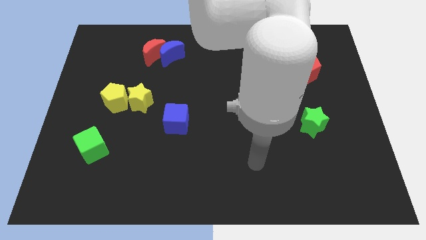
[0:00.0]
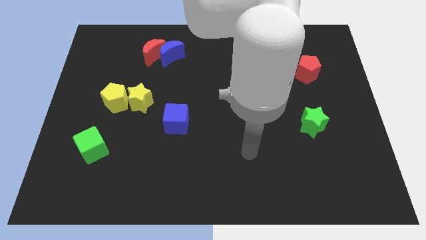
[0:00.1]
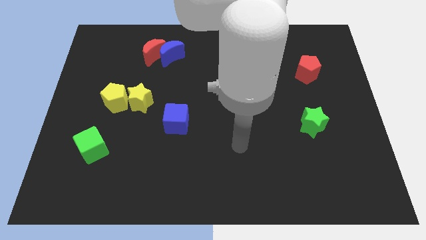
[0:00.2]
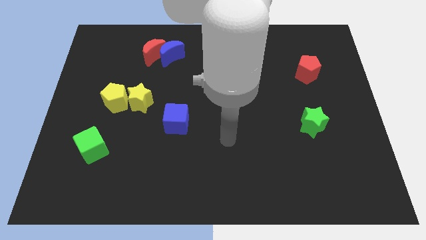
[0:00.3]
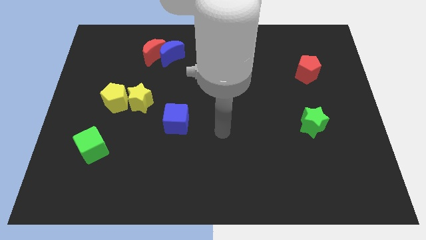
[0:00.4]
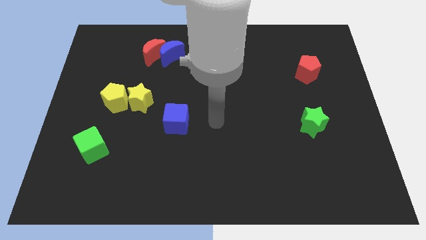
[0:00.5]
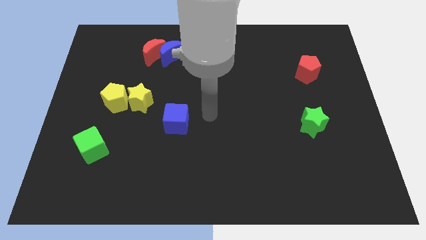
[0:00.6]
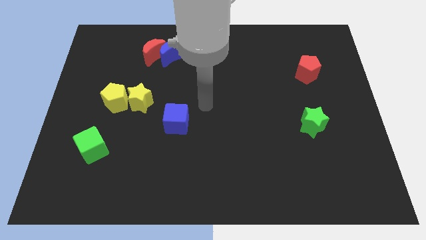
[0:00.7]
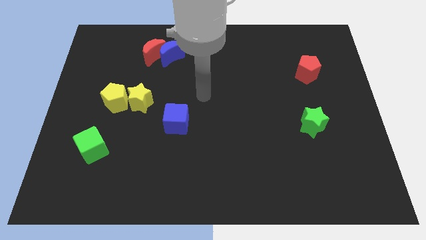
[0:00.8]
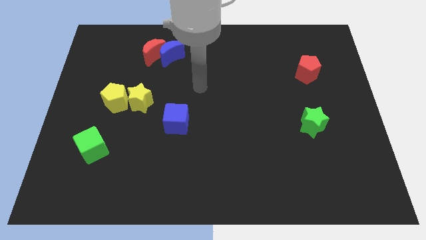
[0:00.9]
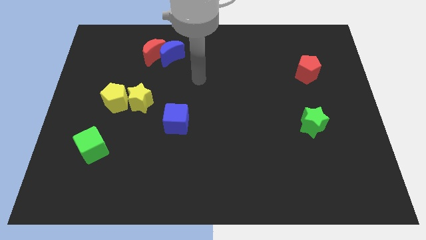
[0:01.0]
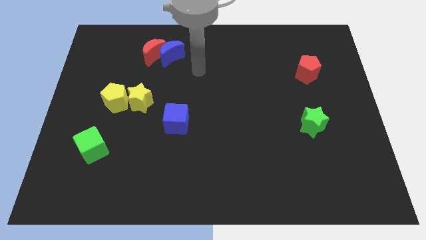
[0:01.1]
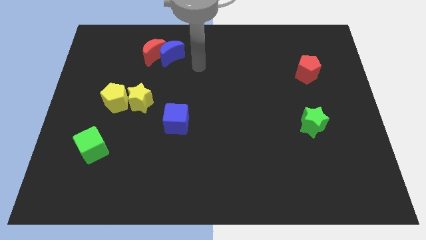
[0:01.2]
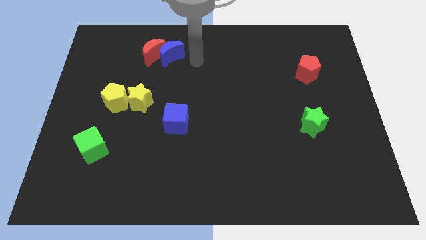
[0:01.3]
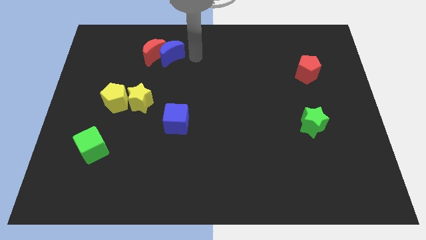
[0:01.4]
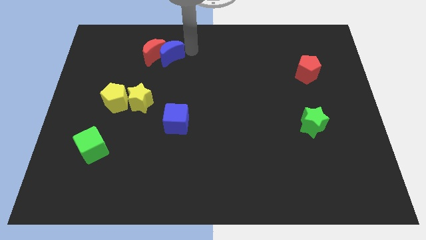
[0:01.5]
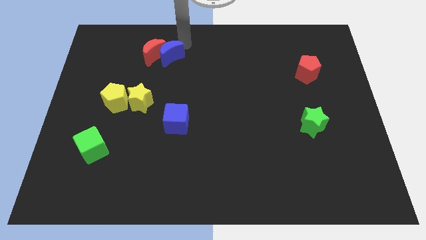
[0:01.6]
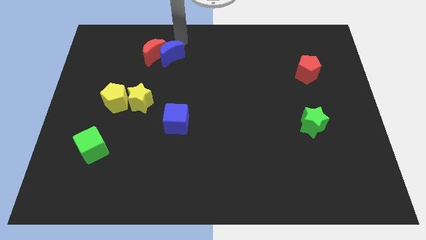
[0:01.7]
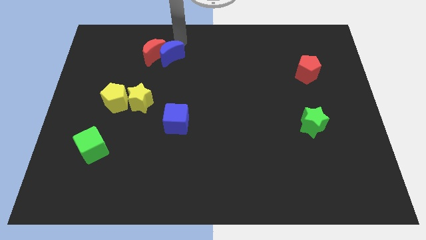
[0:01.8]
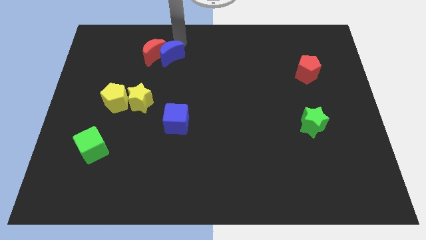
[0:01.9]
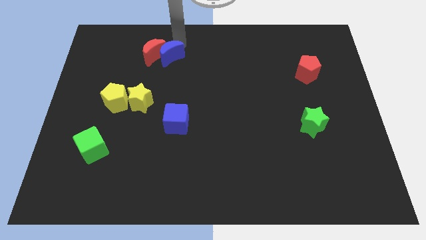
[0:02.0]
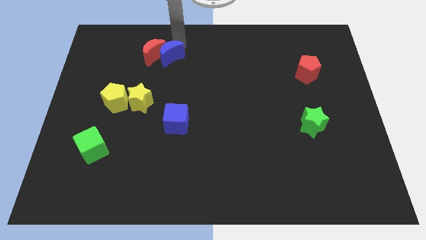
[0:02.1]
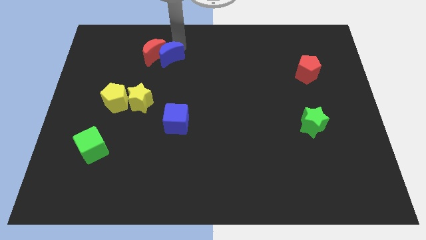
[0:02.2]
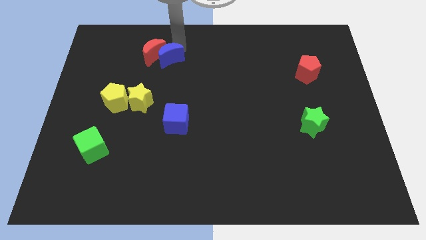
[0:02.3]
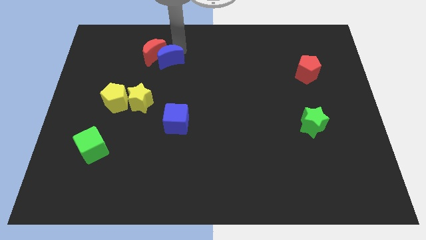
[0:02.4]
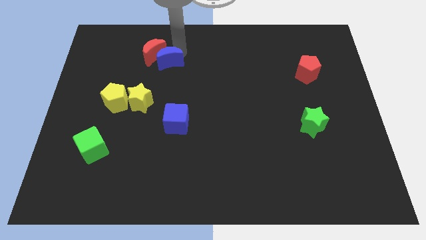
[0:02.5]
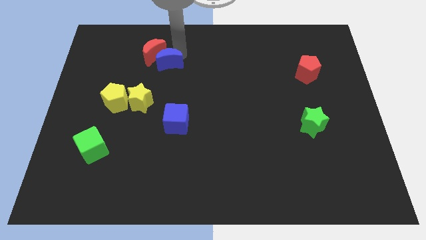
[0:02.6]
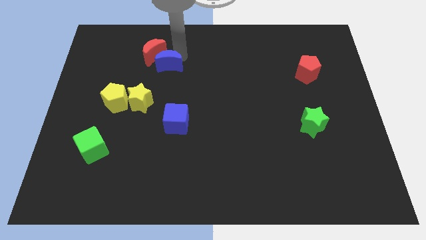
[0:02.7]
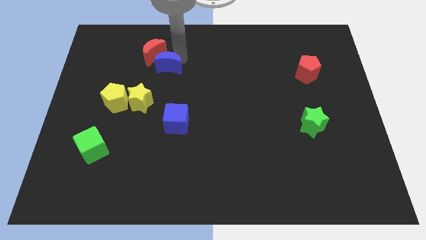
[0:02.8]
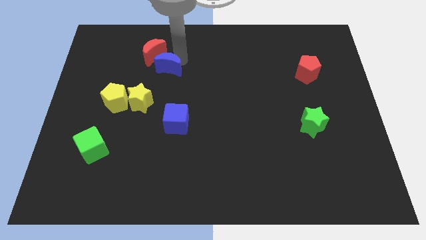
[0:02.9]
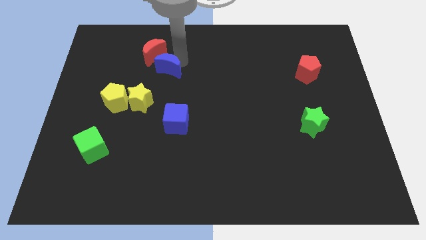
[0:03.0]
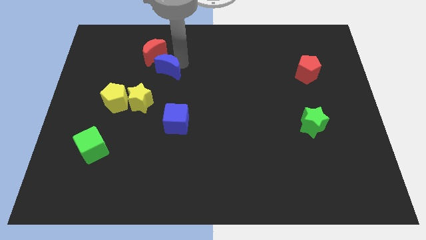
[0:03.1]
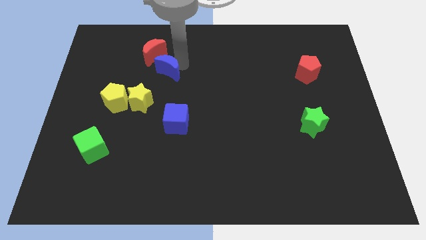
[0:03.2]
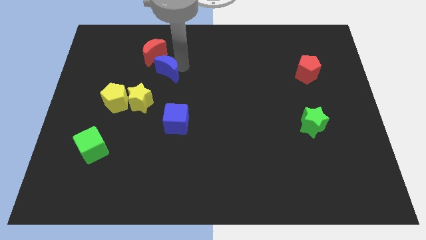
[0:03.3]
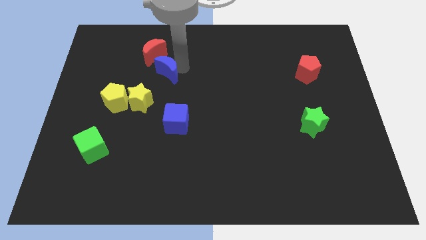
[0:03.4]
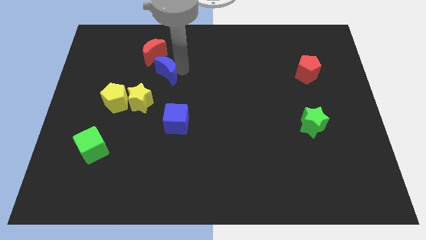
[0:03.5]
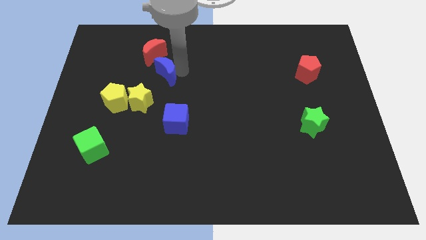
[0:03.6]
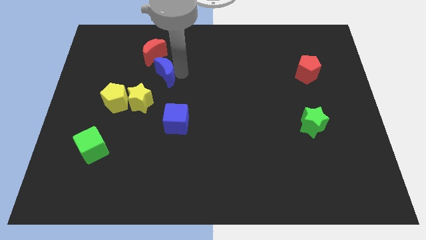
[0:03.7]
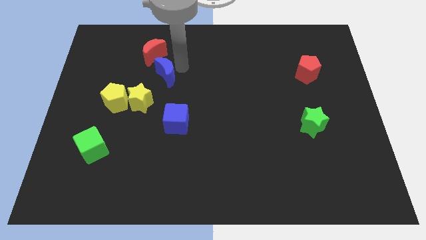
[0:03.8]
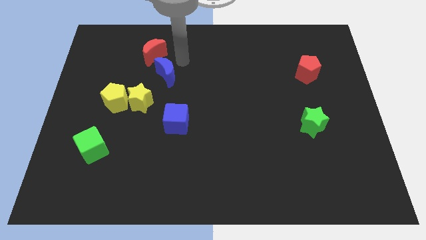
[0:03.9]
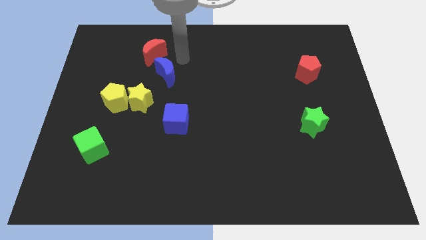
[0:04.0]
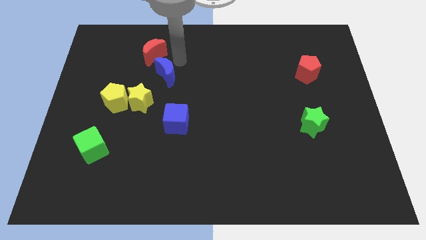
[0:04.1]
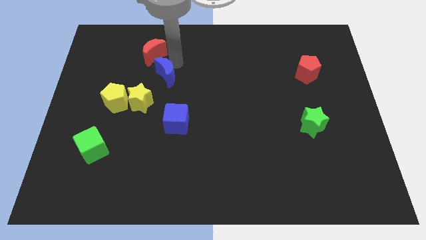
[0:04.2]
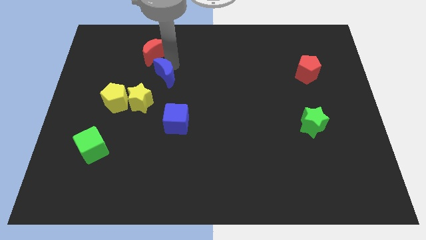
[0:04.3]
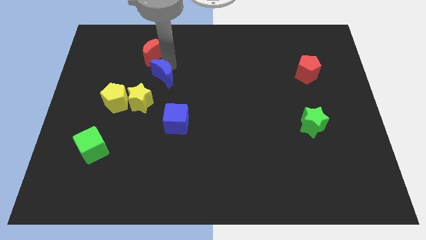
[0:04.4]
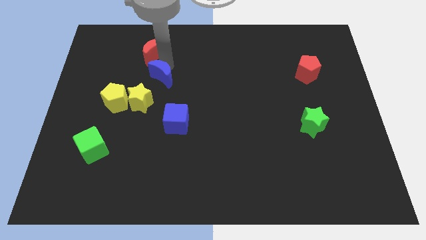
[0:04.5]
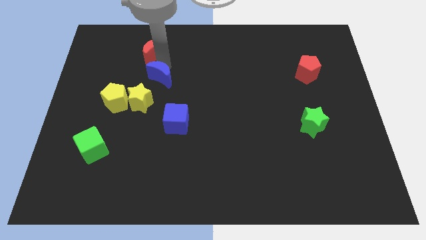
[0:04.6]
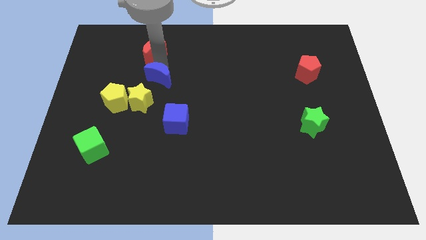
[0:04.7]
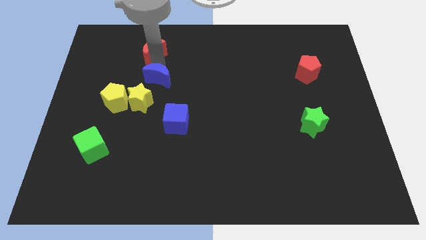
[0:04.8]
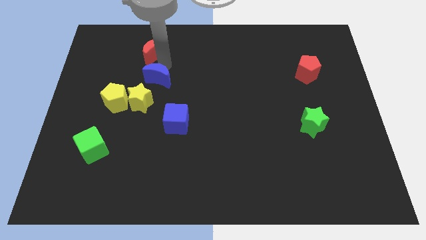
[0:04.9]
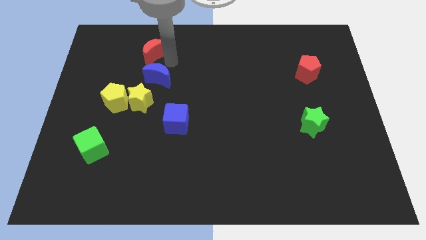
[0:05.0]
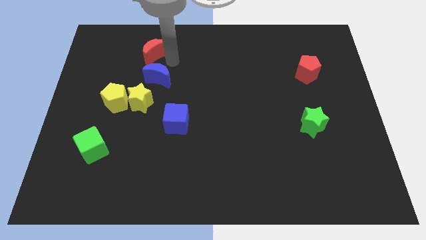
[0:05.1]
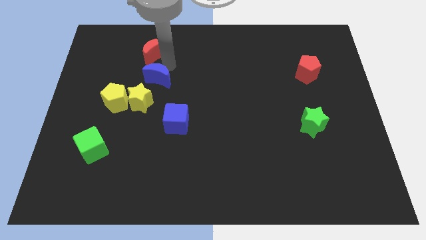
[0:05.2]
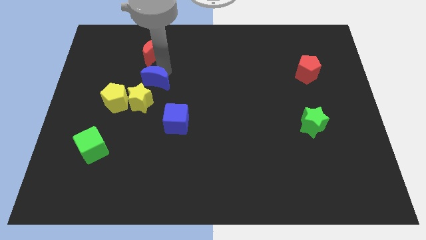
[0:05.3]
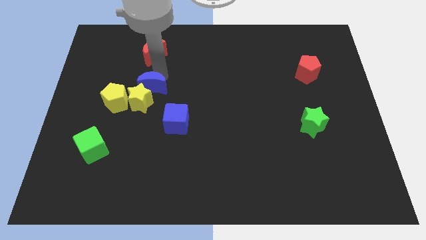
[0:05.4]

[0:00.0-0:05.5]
move the blue moon close to the yellow star

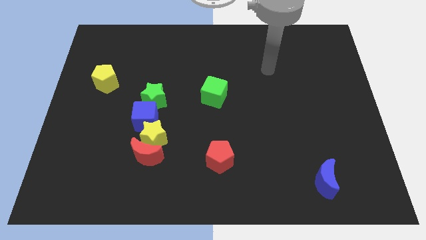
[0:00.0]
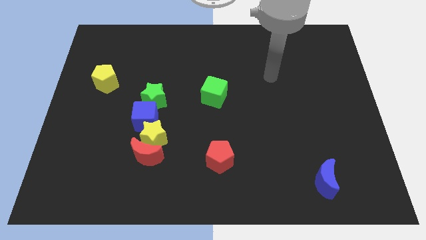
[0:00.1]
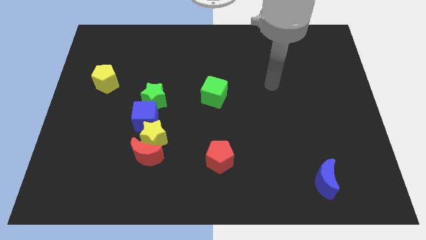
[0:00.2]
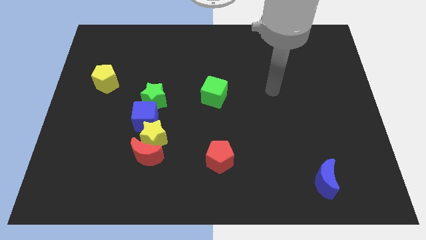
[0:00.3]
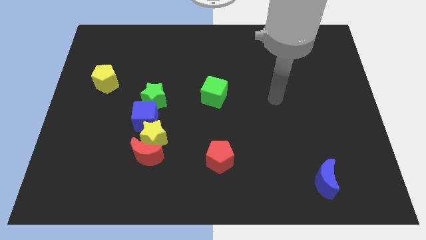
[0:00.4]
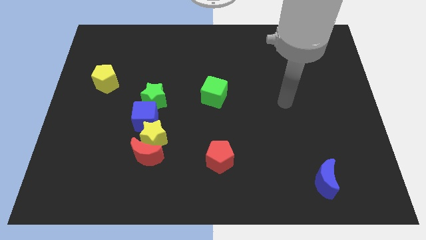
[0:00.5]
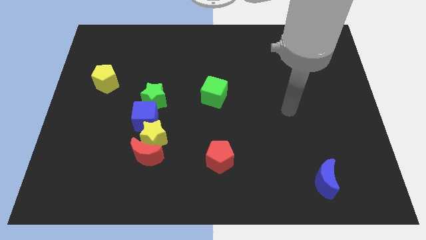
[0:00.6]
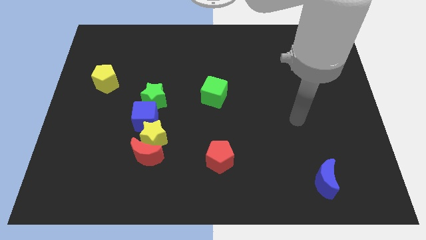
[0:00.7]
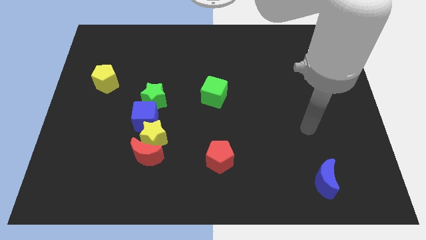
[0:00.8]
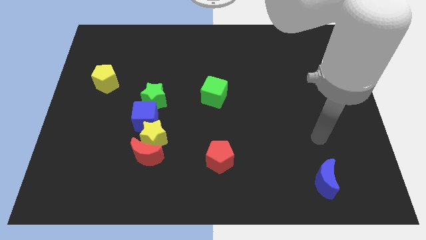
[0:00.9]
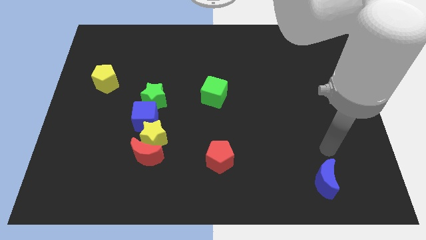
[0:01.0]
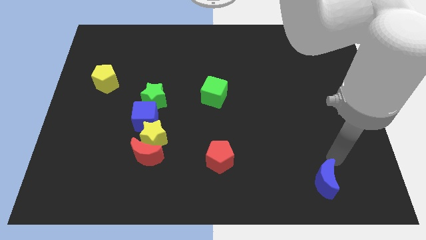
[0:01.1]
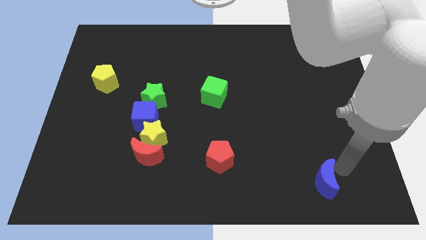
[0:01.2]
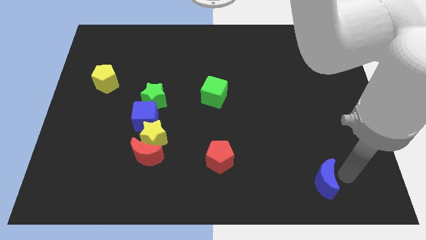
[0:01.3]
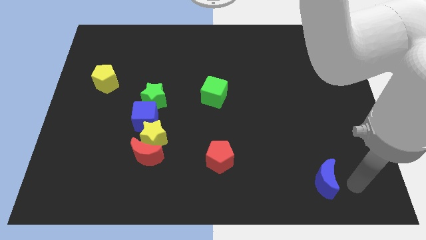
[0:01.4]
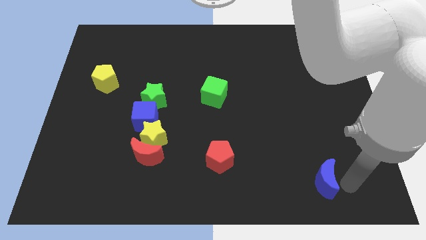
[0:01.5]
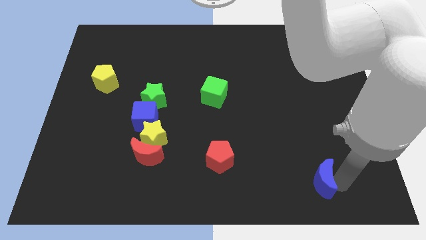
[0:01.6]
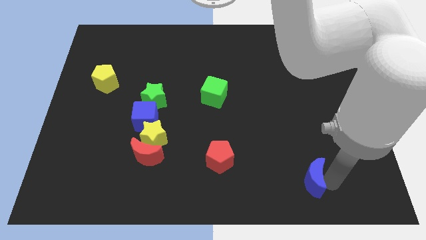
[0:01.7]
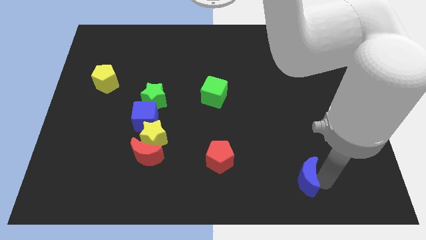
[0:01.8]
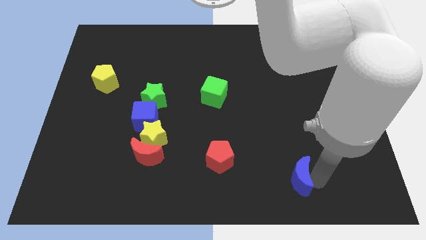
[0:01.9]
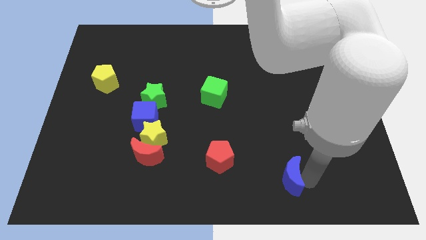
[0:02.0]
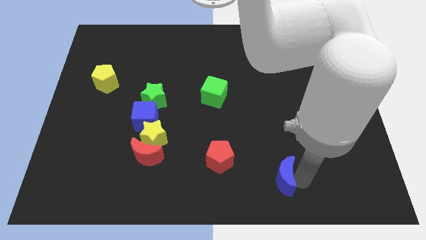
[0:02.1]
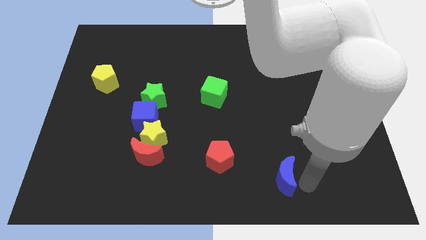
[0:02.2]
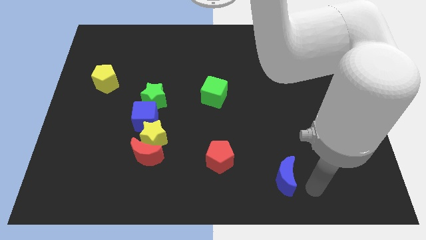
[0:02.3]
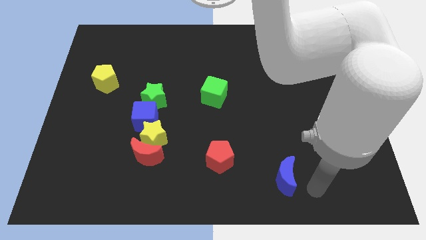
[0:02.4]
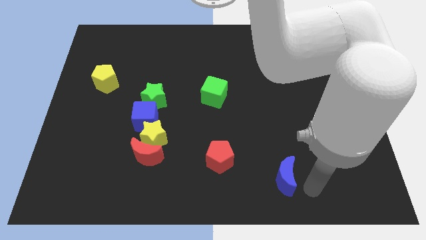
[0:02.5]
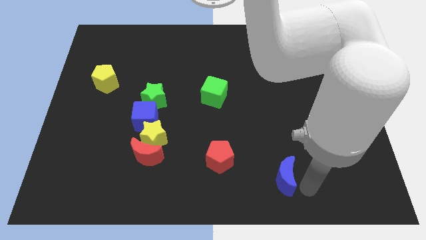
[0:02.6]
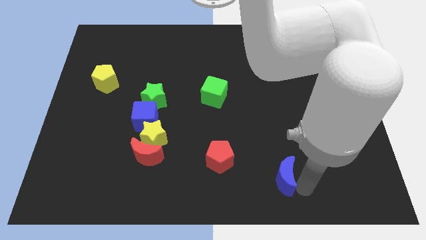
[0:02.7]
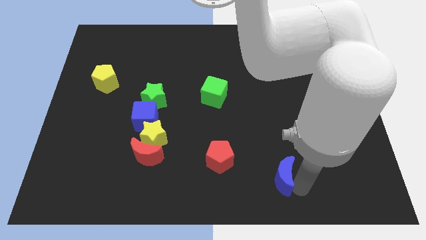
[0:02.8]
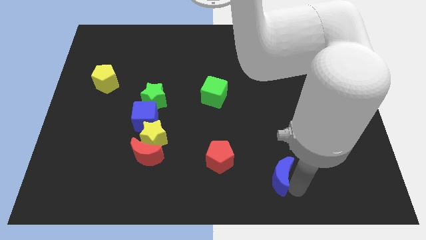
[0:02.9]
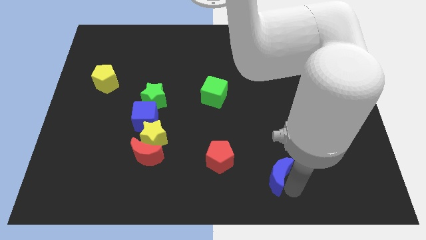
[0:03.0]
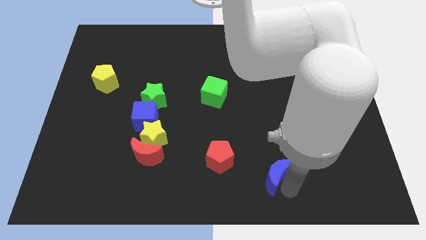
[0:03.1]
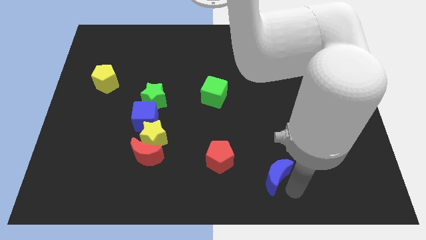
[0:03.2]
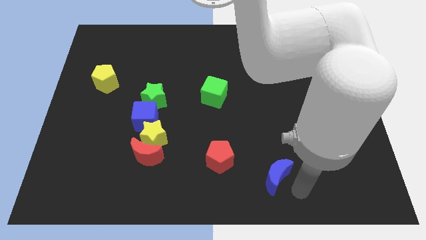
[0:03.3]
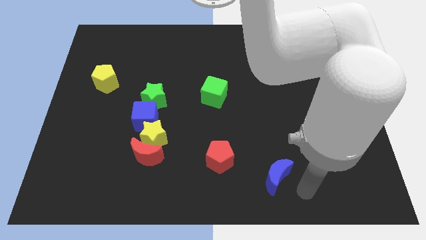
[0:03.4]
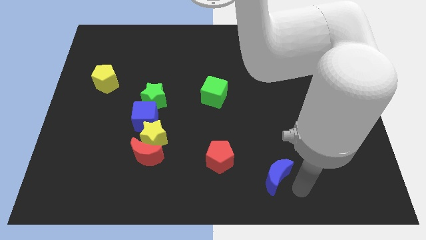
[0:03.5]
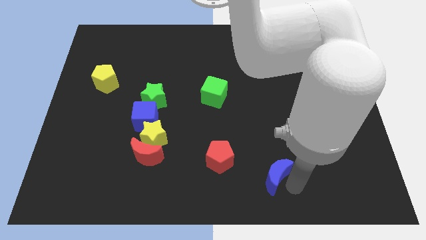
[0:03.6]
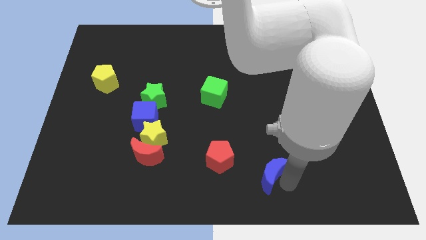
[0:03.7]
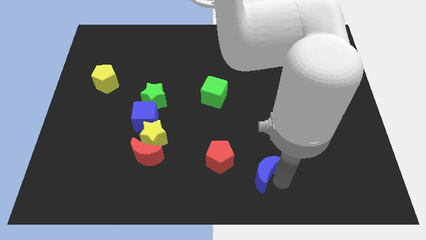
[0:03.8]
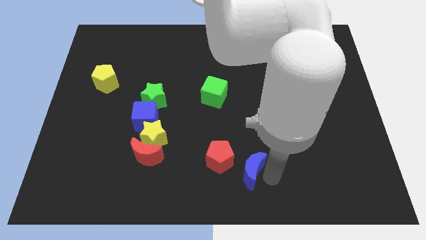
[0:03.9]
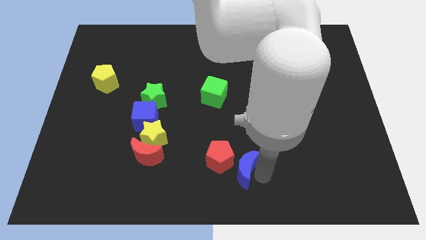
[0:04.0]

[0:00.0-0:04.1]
slide the blue moon to the red pentagon
